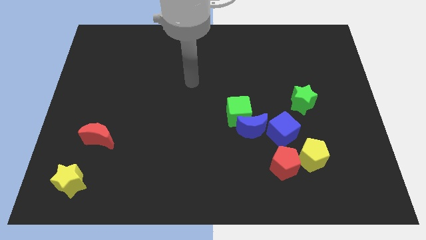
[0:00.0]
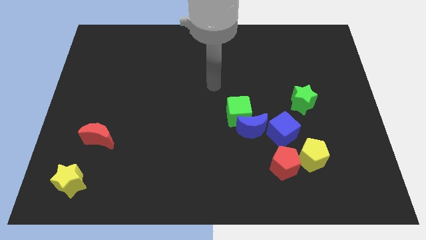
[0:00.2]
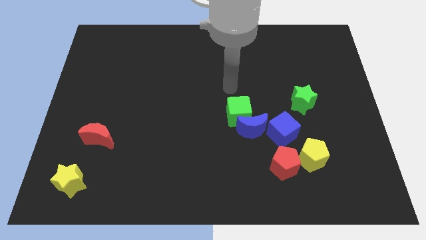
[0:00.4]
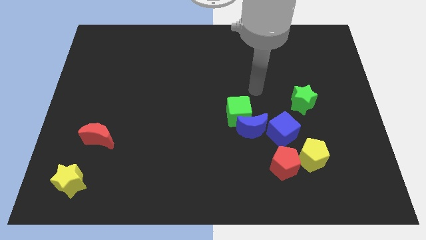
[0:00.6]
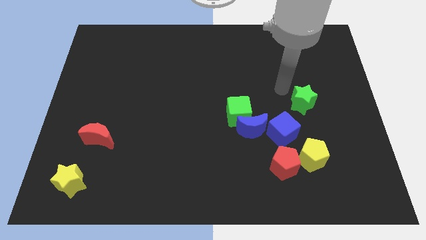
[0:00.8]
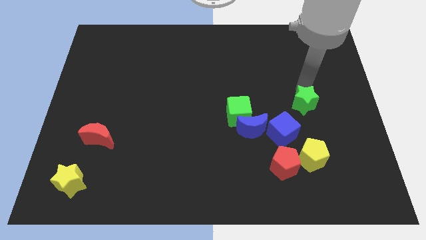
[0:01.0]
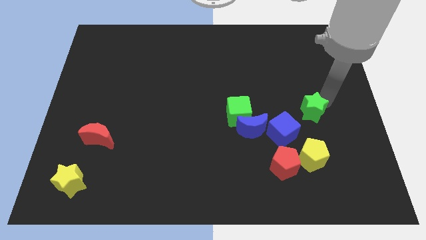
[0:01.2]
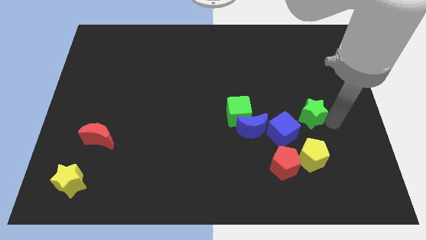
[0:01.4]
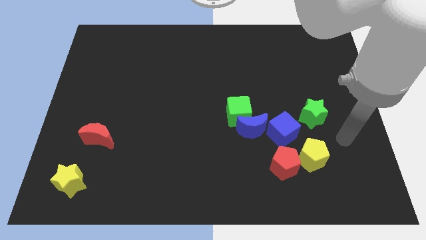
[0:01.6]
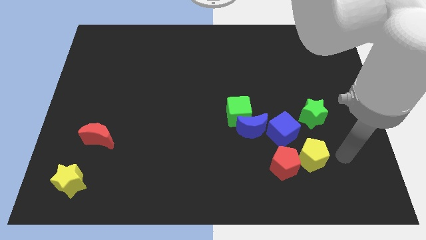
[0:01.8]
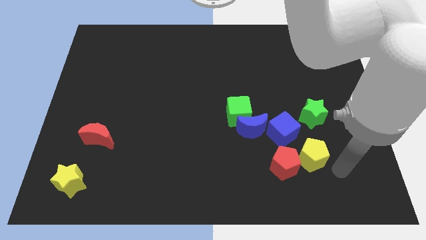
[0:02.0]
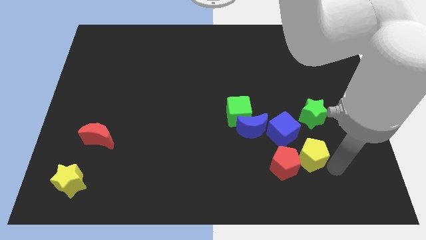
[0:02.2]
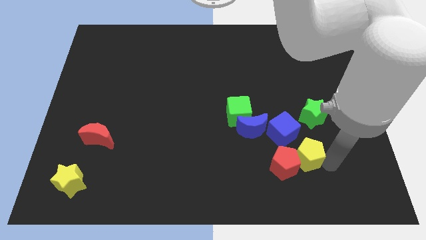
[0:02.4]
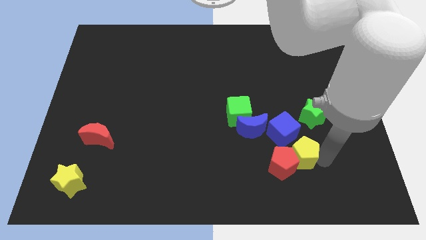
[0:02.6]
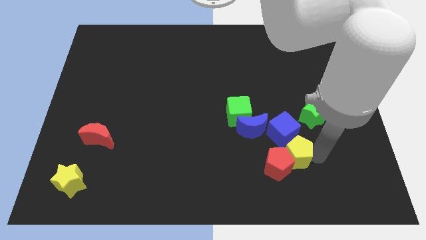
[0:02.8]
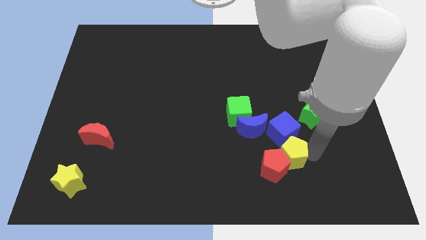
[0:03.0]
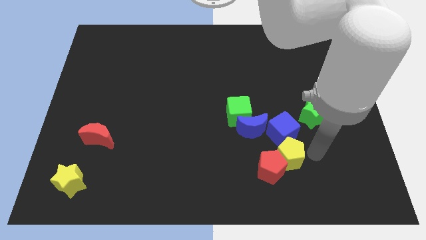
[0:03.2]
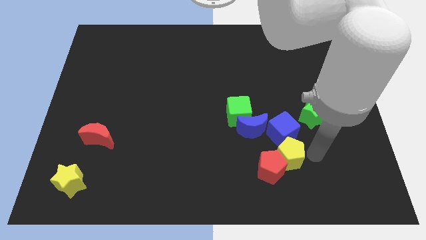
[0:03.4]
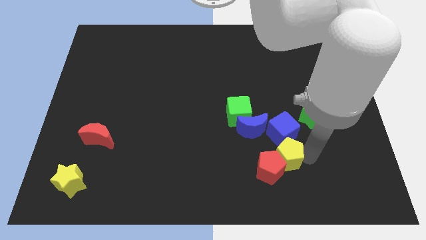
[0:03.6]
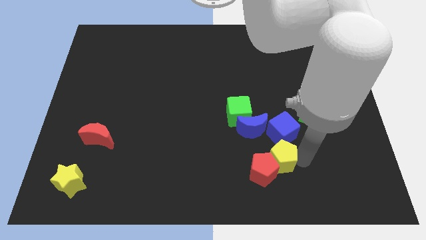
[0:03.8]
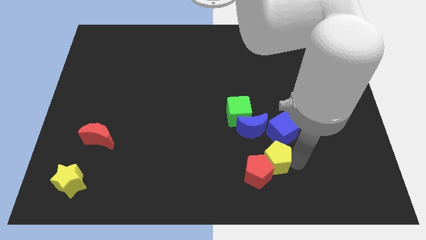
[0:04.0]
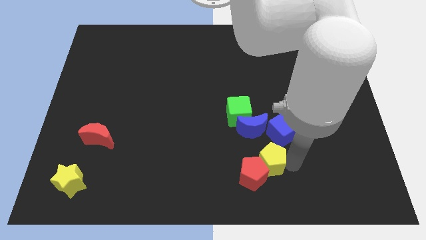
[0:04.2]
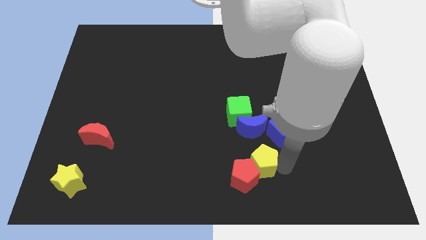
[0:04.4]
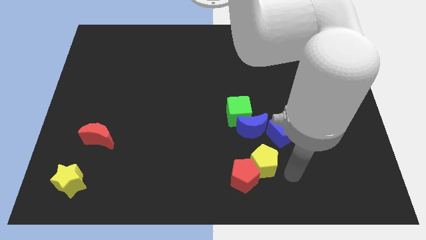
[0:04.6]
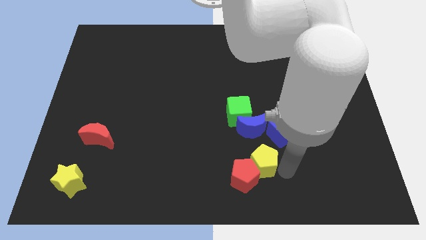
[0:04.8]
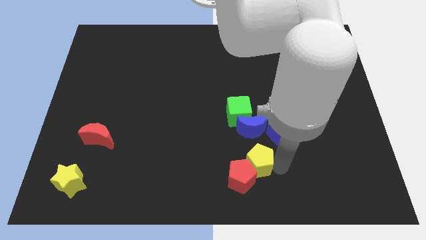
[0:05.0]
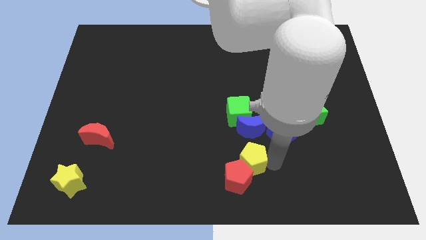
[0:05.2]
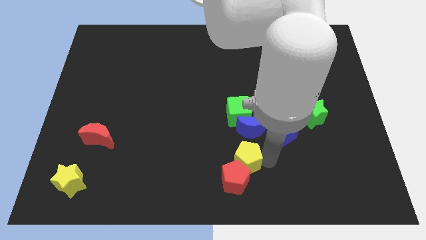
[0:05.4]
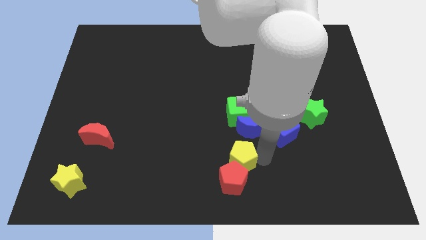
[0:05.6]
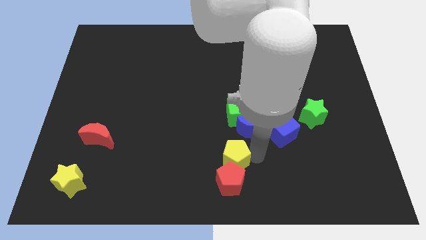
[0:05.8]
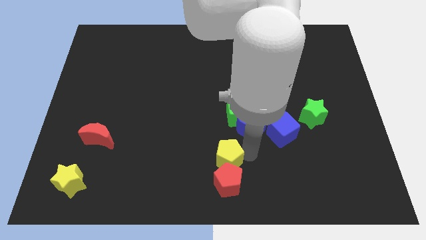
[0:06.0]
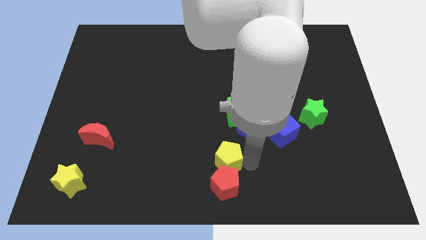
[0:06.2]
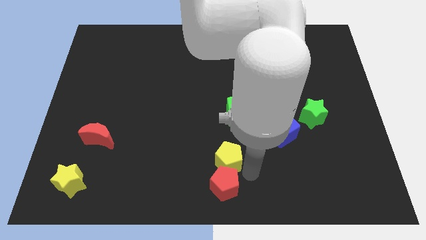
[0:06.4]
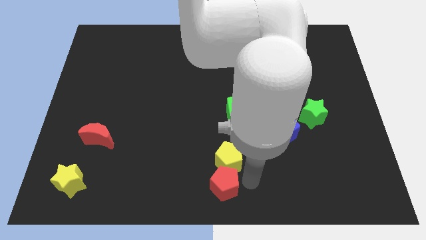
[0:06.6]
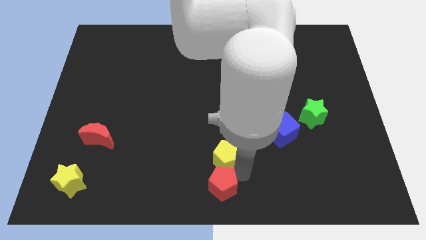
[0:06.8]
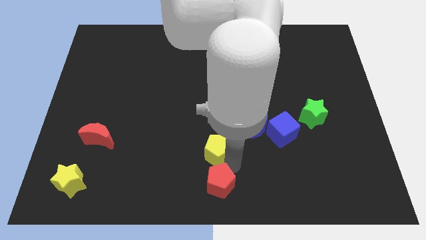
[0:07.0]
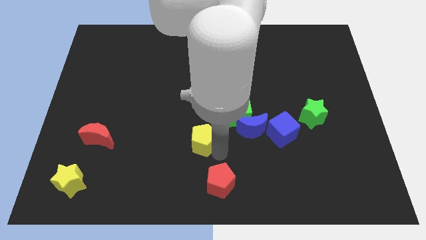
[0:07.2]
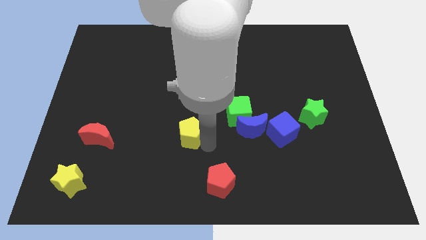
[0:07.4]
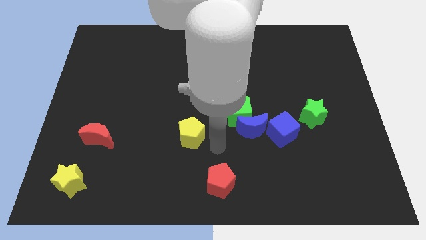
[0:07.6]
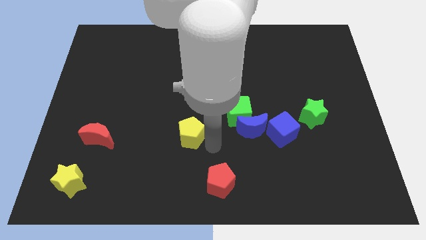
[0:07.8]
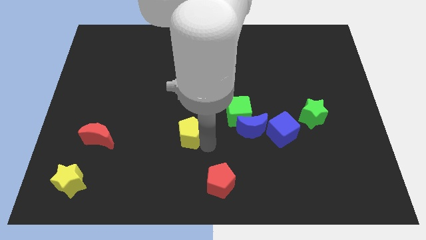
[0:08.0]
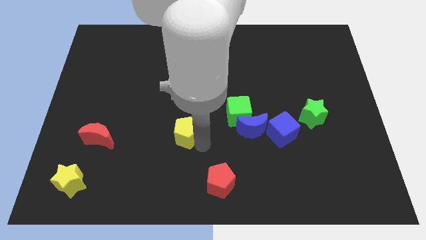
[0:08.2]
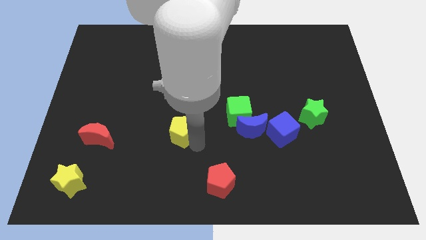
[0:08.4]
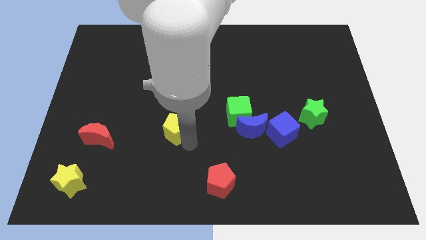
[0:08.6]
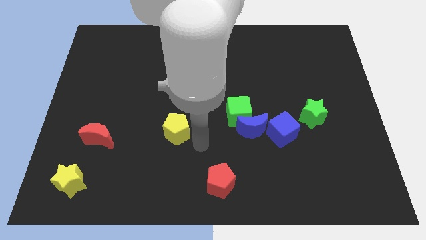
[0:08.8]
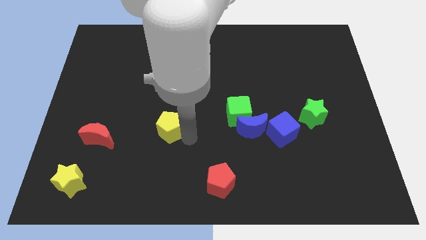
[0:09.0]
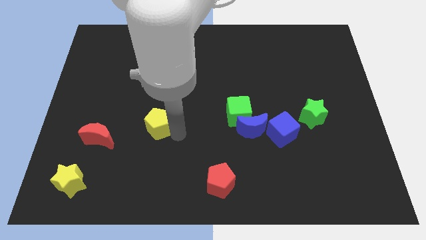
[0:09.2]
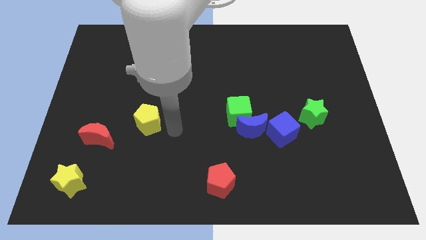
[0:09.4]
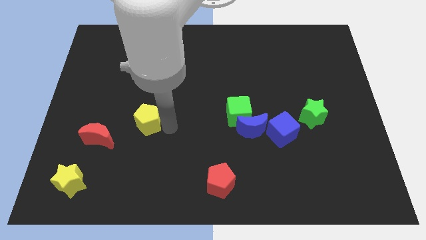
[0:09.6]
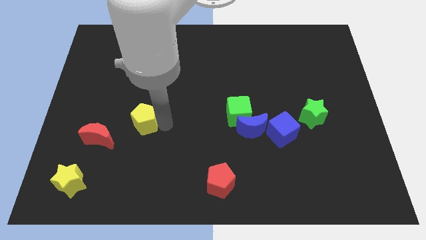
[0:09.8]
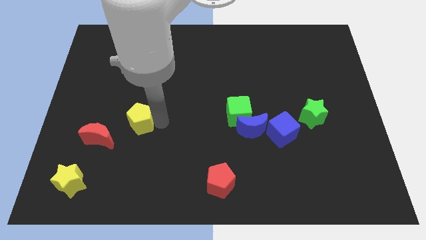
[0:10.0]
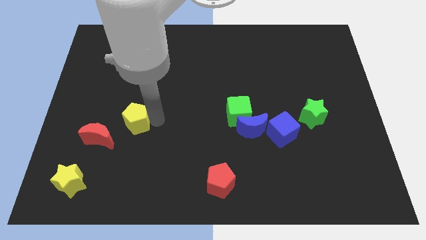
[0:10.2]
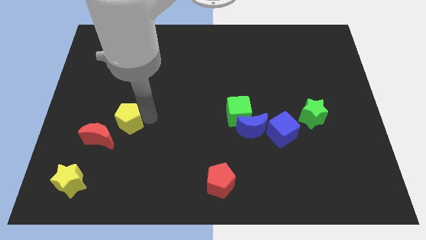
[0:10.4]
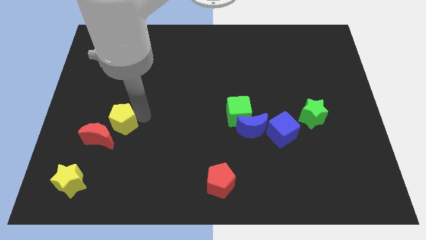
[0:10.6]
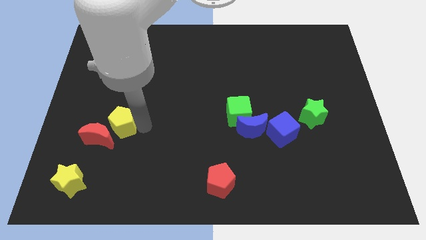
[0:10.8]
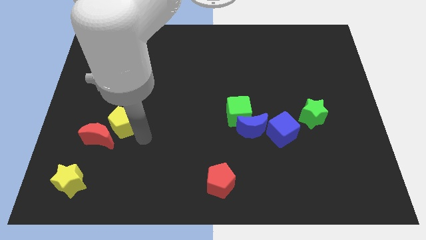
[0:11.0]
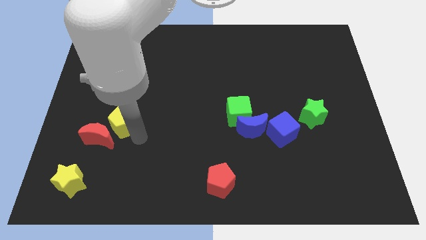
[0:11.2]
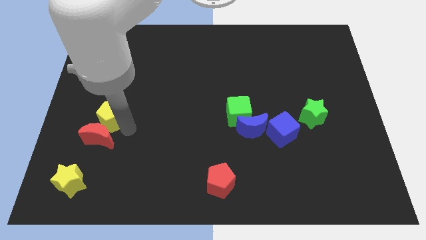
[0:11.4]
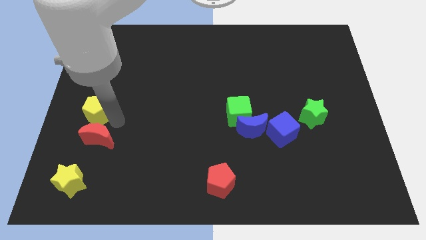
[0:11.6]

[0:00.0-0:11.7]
move the yellow pentagon to the center left

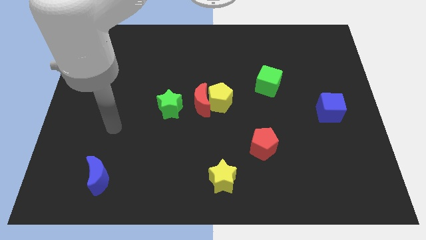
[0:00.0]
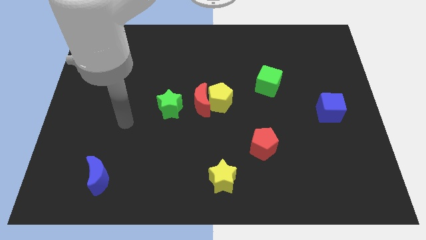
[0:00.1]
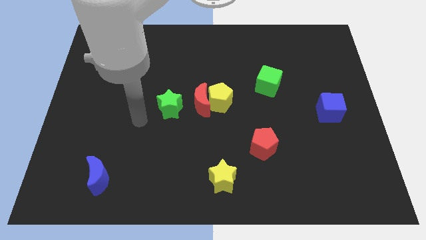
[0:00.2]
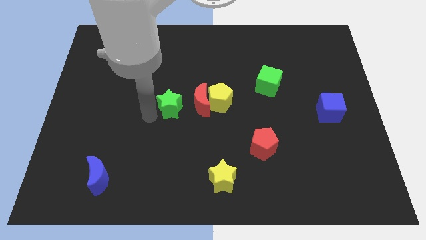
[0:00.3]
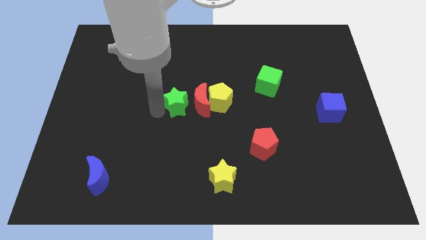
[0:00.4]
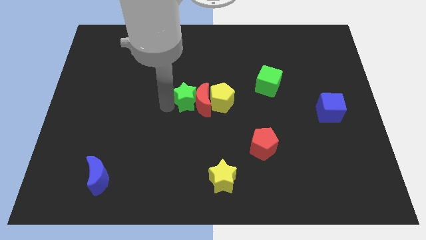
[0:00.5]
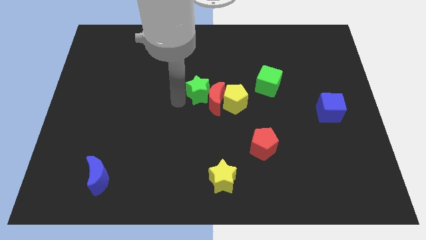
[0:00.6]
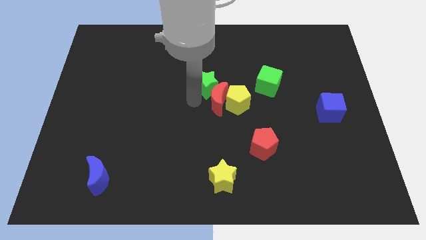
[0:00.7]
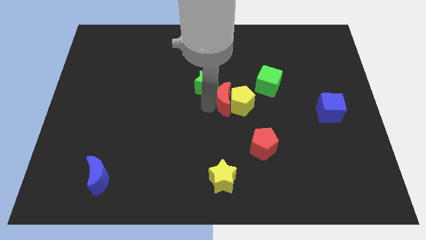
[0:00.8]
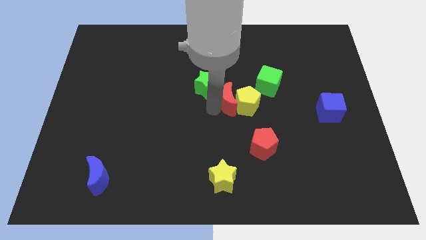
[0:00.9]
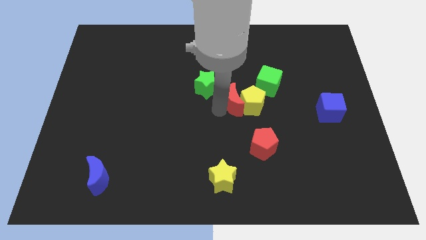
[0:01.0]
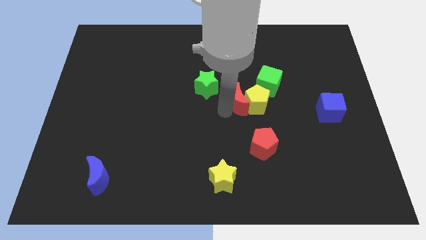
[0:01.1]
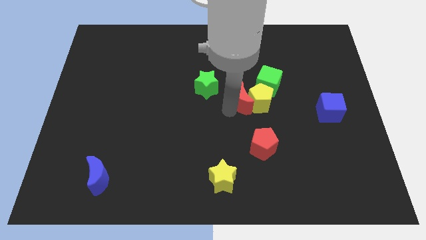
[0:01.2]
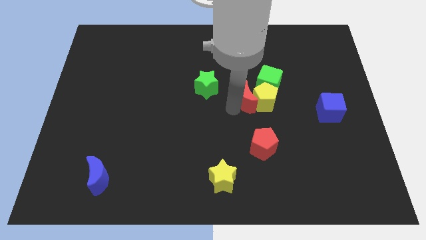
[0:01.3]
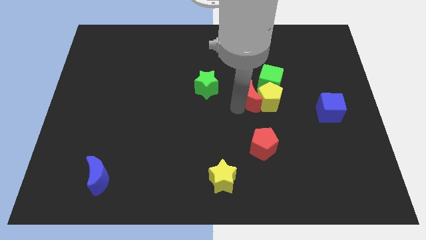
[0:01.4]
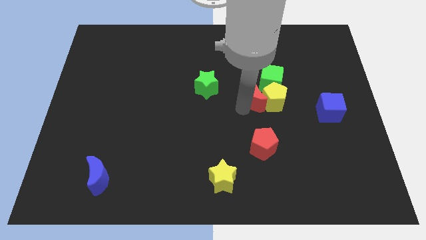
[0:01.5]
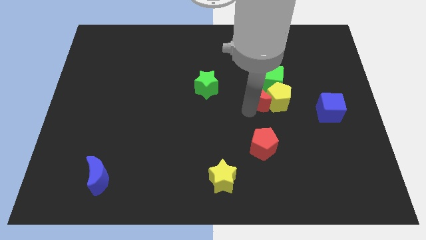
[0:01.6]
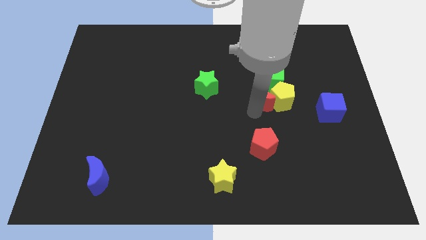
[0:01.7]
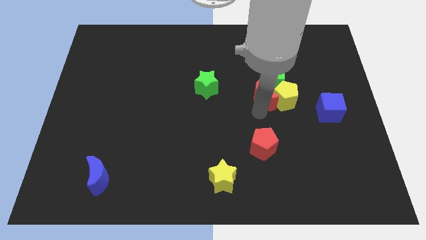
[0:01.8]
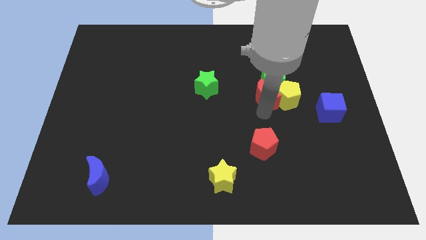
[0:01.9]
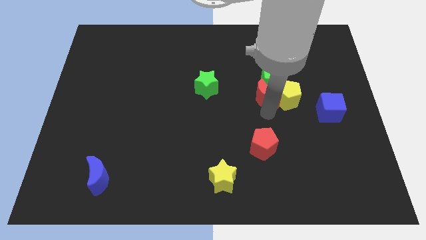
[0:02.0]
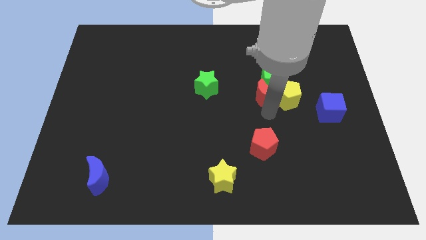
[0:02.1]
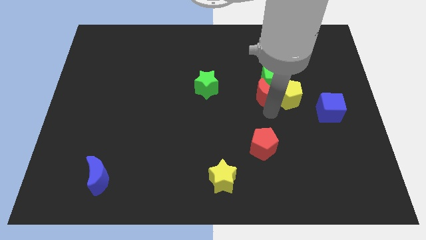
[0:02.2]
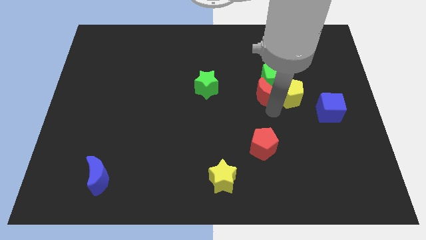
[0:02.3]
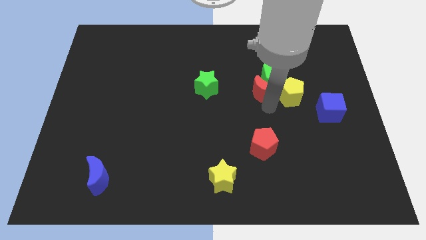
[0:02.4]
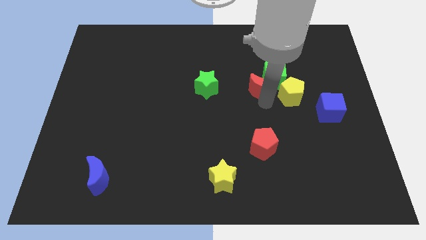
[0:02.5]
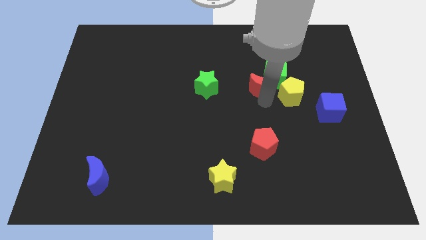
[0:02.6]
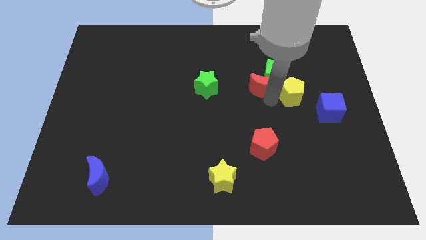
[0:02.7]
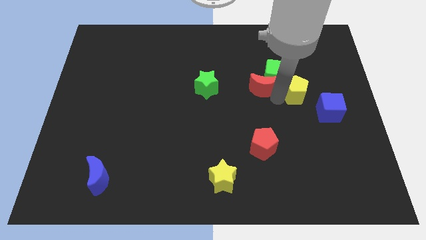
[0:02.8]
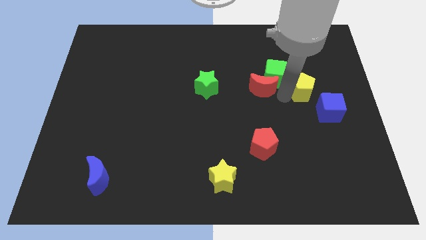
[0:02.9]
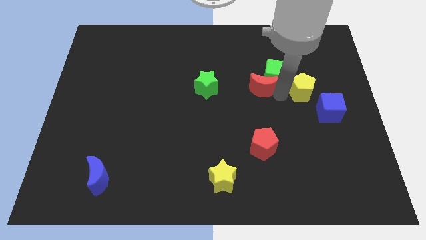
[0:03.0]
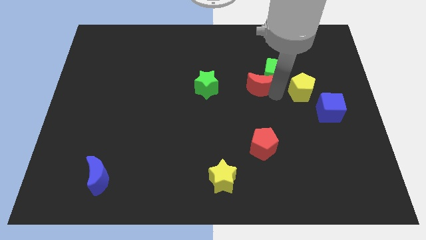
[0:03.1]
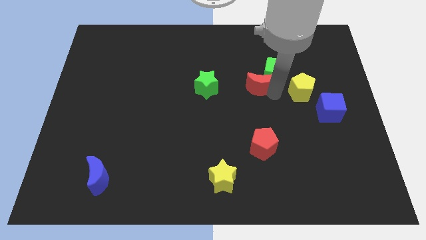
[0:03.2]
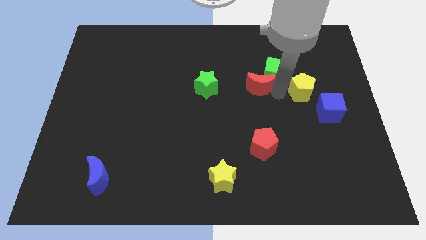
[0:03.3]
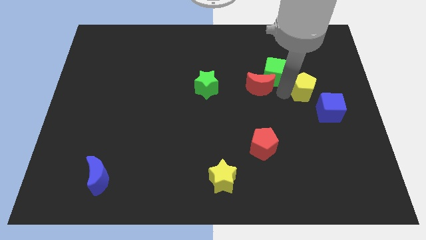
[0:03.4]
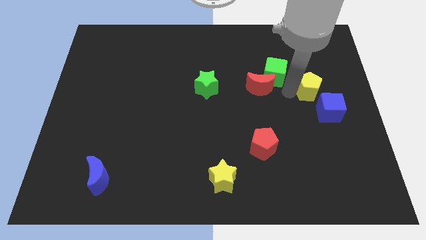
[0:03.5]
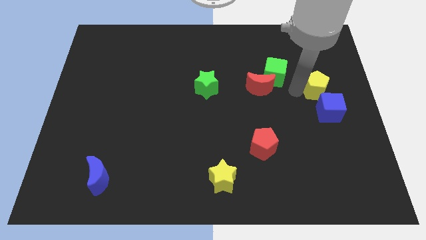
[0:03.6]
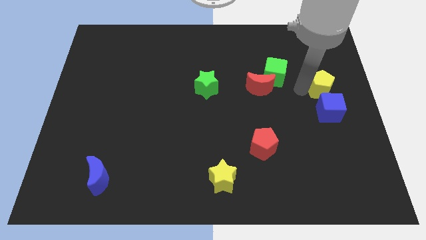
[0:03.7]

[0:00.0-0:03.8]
push the yellow pentagon to the right side
